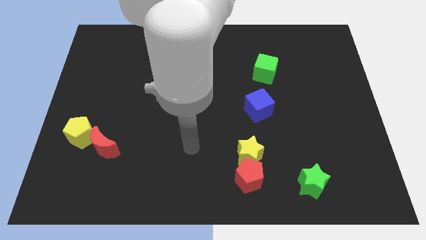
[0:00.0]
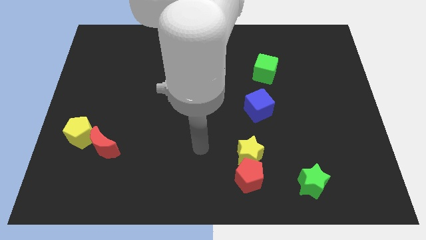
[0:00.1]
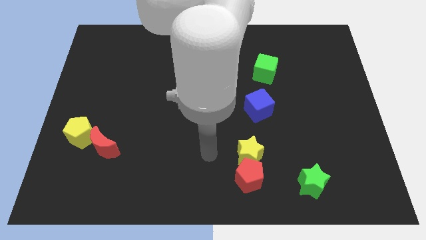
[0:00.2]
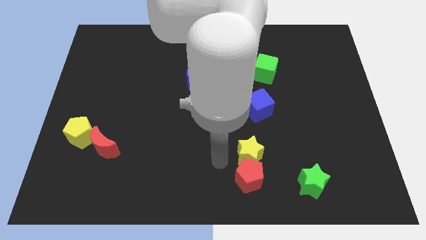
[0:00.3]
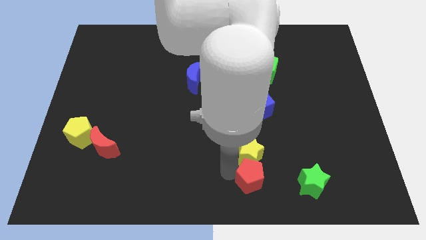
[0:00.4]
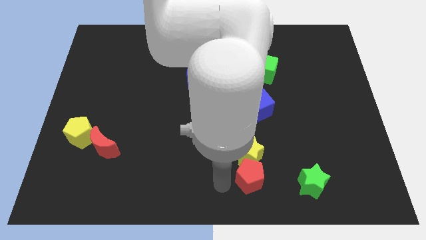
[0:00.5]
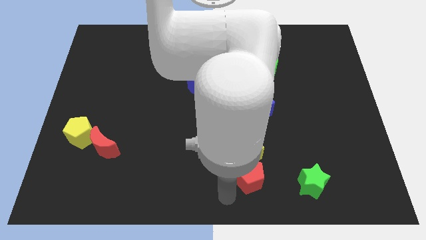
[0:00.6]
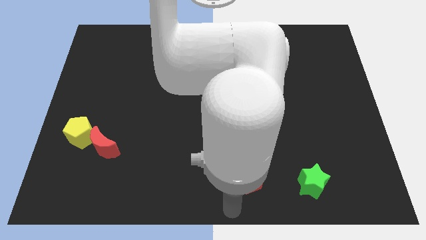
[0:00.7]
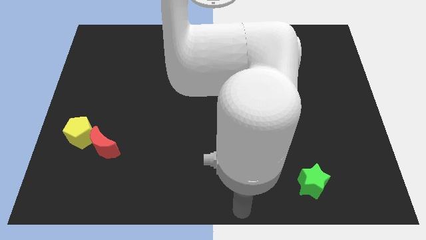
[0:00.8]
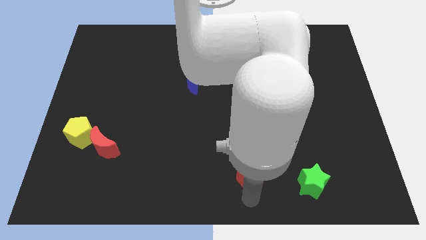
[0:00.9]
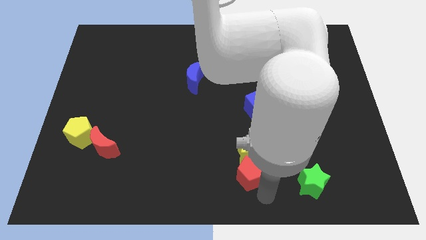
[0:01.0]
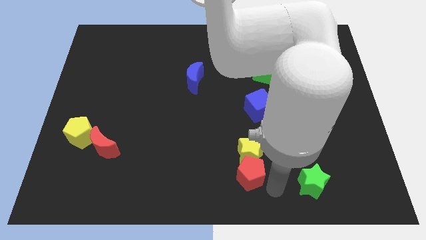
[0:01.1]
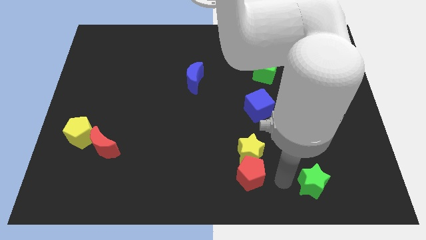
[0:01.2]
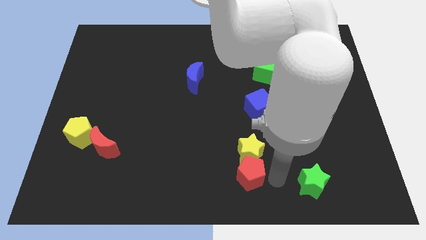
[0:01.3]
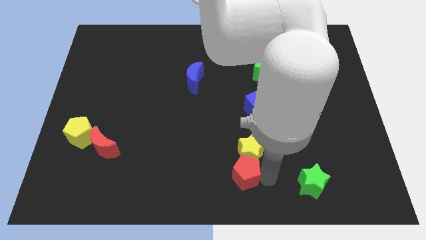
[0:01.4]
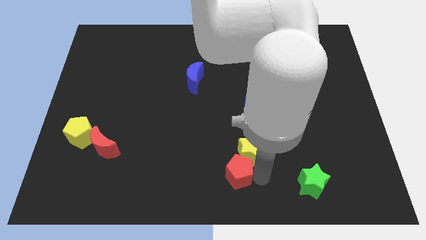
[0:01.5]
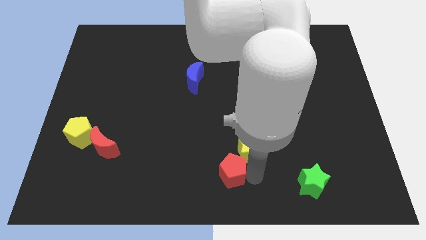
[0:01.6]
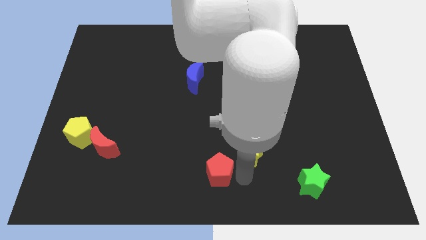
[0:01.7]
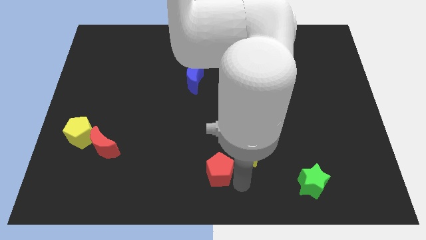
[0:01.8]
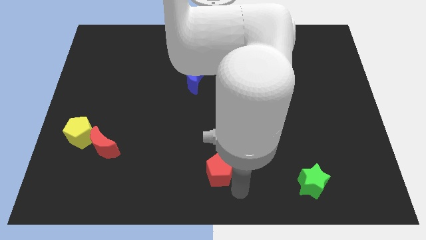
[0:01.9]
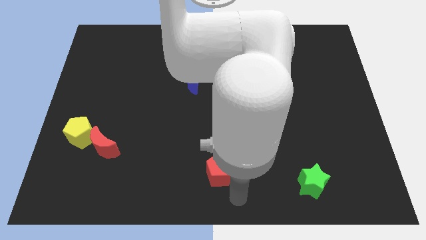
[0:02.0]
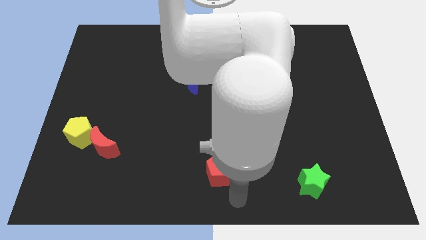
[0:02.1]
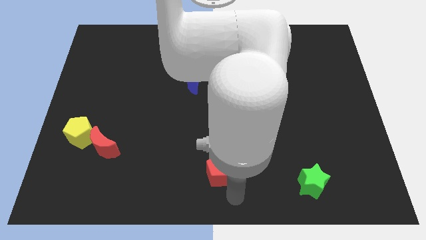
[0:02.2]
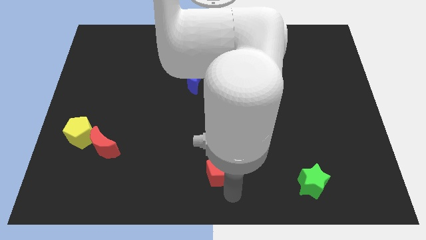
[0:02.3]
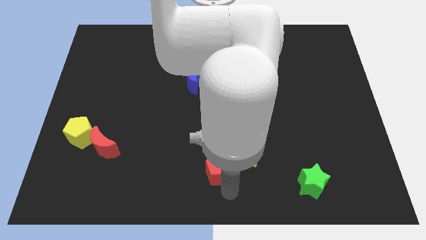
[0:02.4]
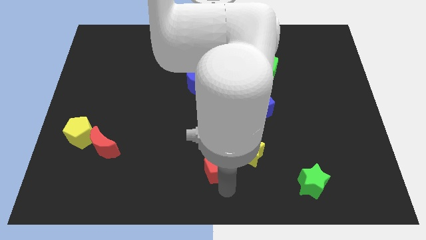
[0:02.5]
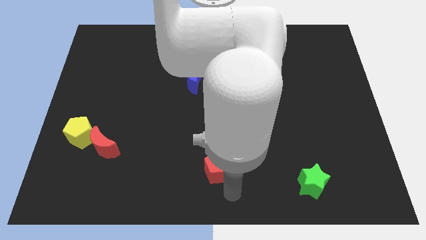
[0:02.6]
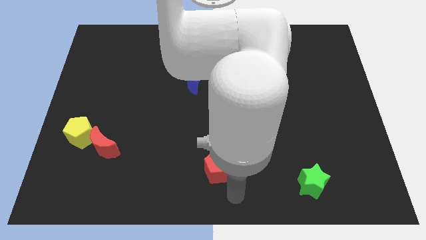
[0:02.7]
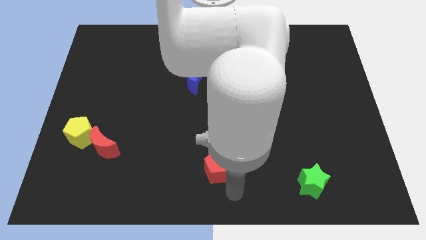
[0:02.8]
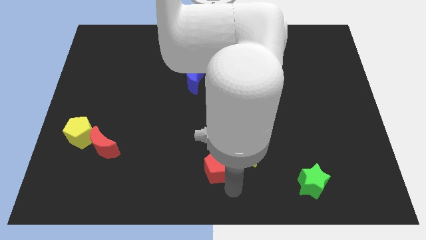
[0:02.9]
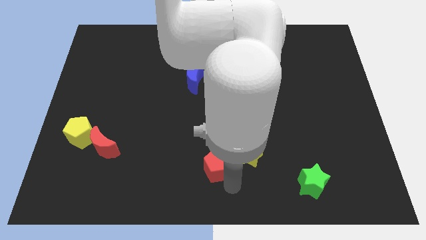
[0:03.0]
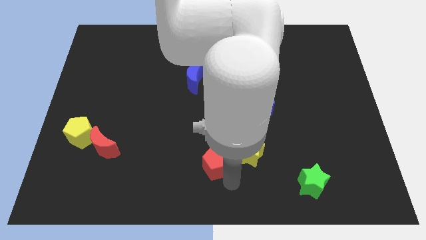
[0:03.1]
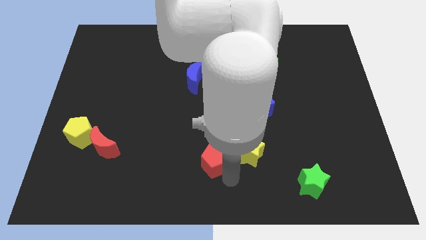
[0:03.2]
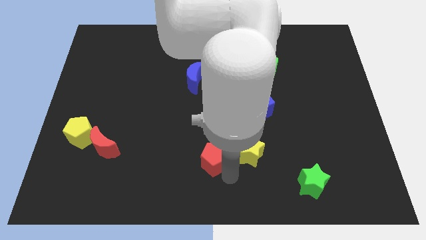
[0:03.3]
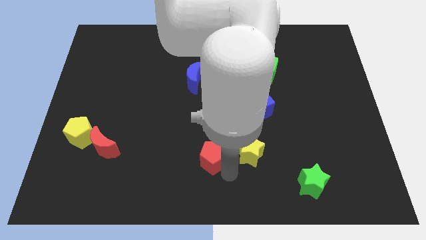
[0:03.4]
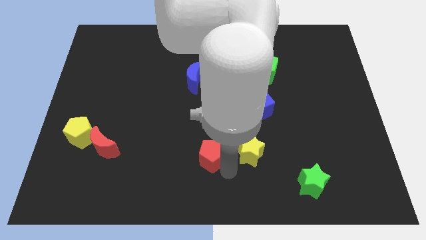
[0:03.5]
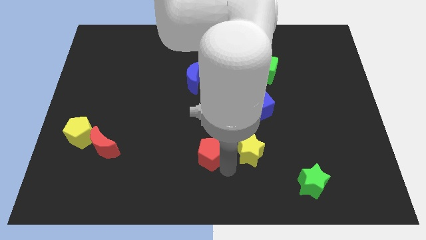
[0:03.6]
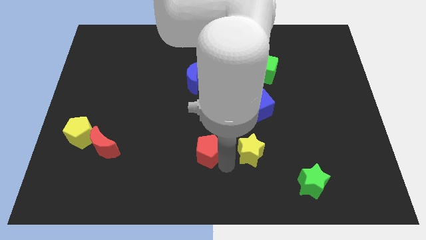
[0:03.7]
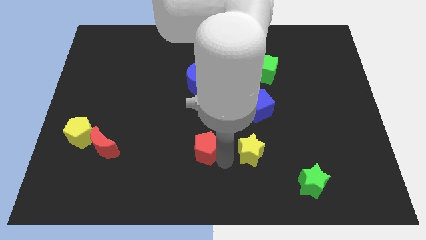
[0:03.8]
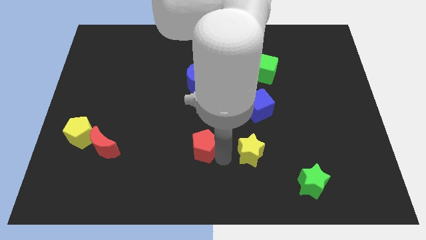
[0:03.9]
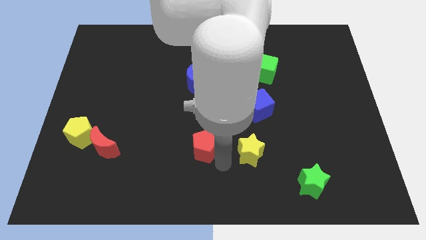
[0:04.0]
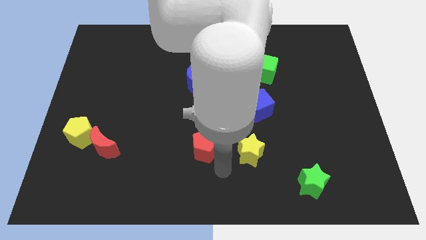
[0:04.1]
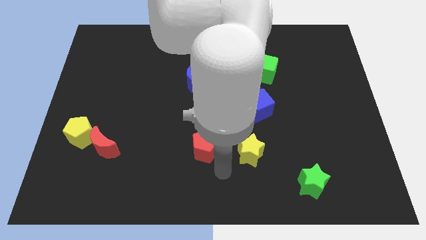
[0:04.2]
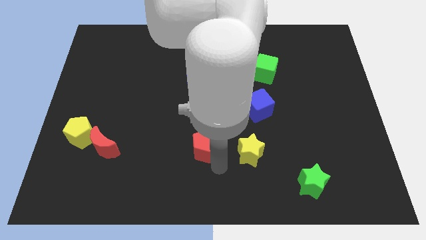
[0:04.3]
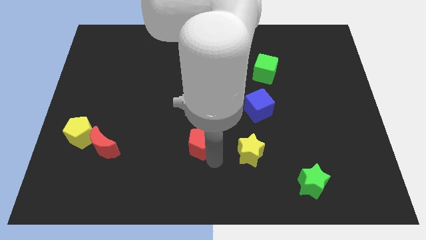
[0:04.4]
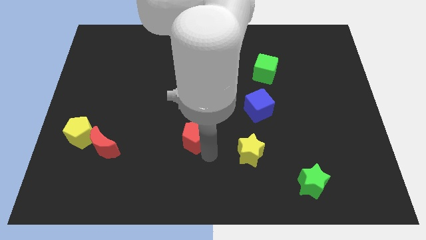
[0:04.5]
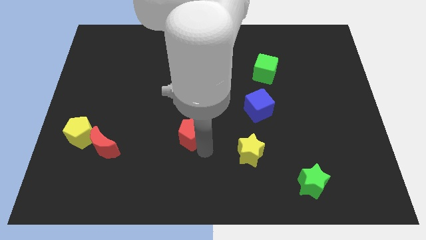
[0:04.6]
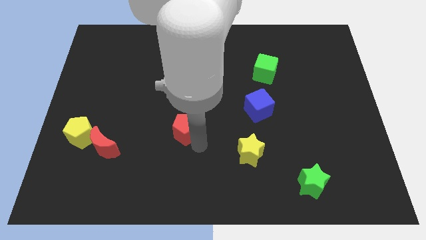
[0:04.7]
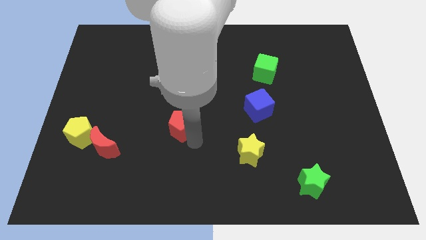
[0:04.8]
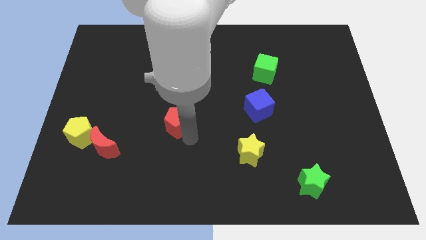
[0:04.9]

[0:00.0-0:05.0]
slide the red pentagon up and then to the left

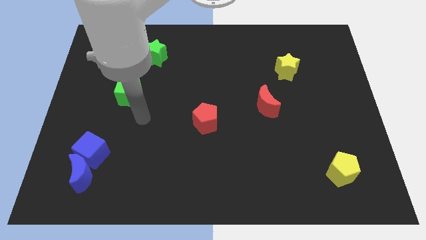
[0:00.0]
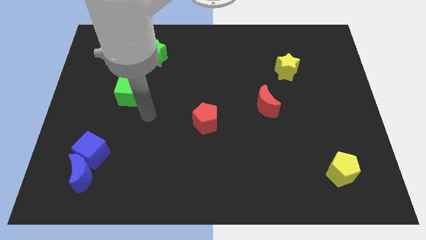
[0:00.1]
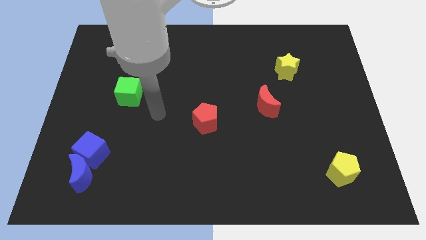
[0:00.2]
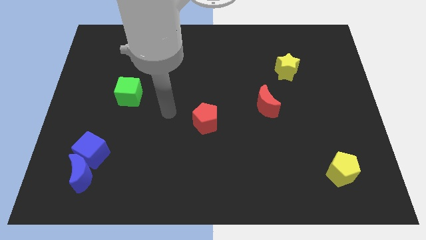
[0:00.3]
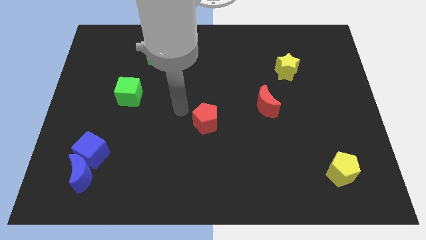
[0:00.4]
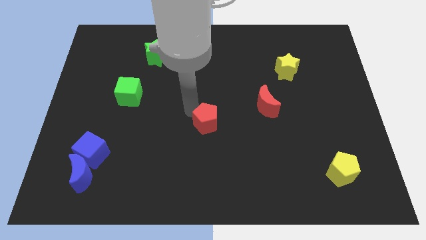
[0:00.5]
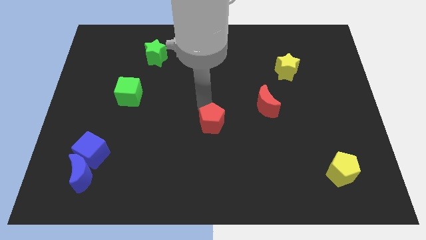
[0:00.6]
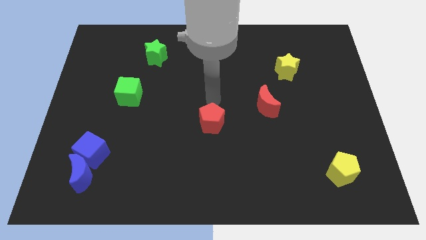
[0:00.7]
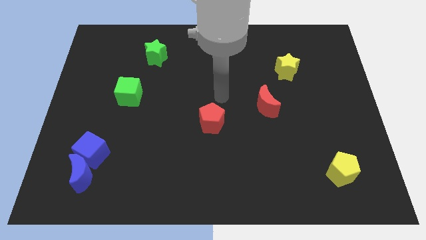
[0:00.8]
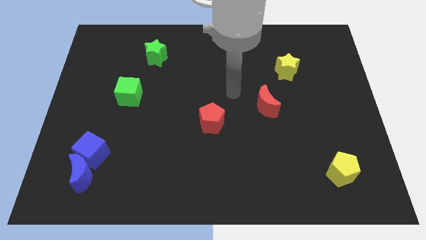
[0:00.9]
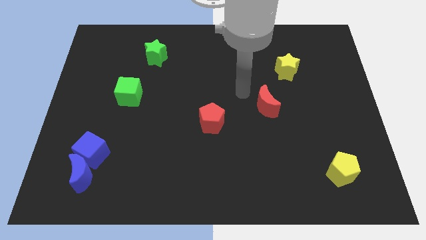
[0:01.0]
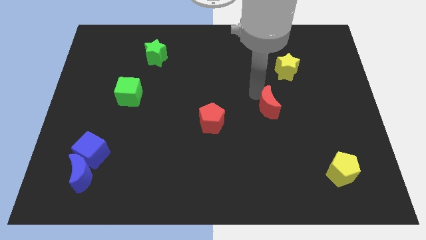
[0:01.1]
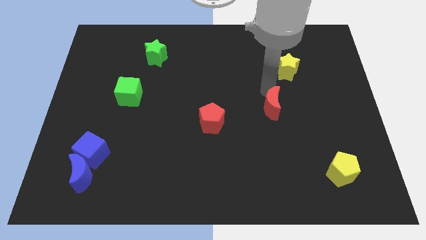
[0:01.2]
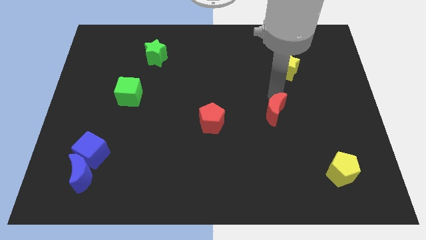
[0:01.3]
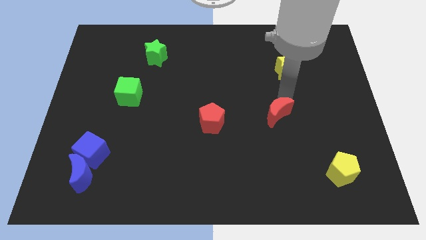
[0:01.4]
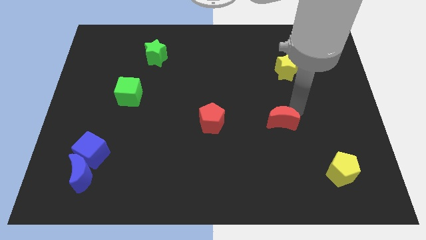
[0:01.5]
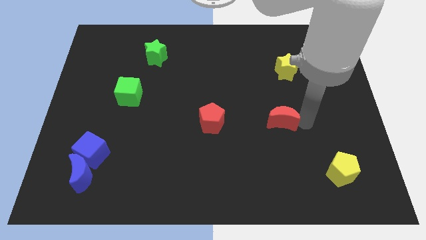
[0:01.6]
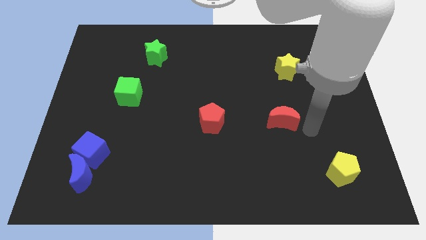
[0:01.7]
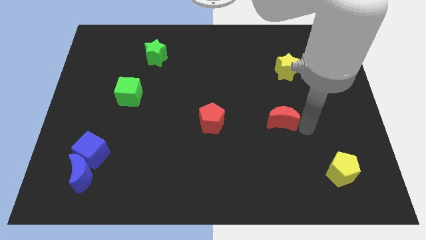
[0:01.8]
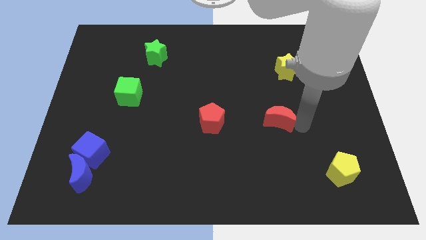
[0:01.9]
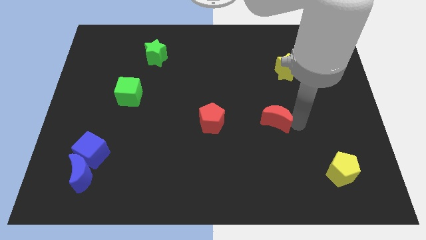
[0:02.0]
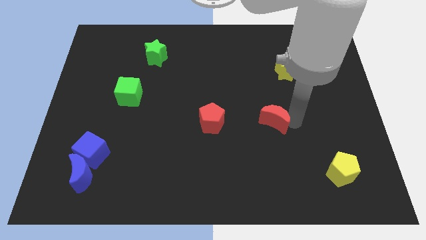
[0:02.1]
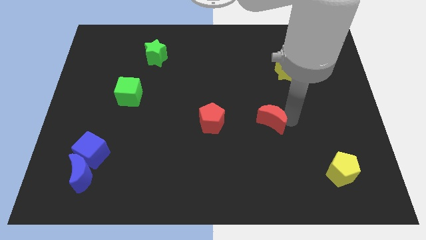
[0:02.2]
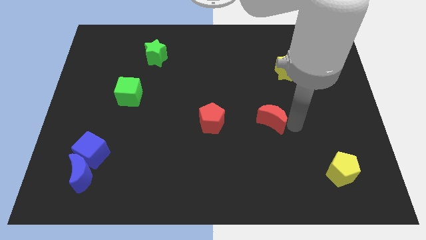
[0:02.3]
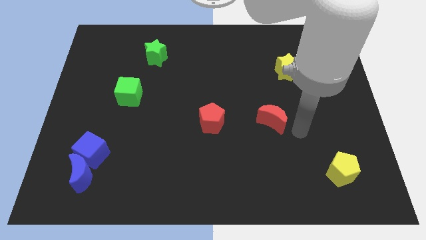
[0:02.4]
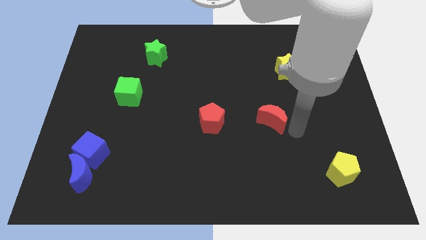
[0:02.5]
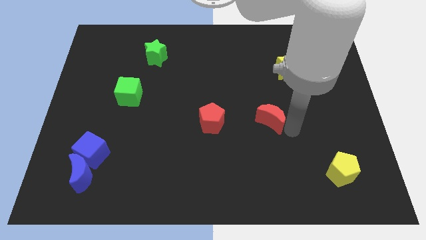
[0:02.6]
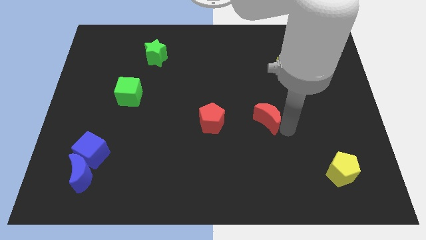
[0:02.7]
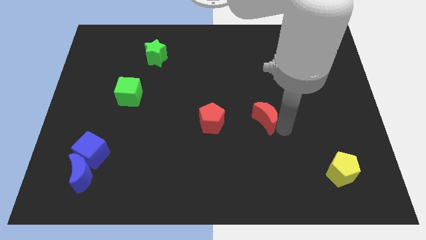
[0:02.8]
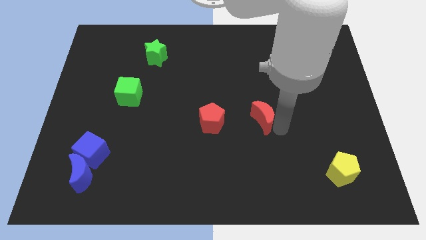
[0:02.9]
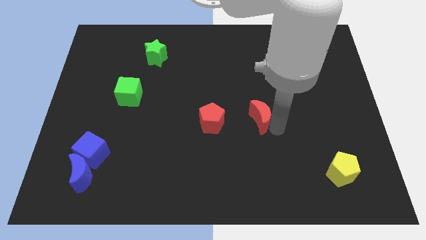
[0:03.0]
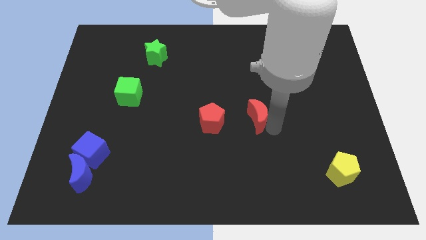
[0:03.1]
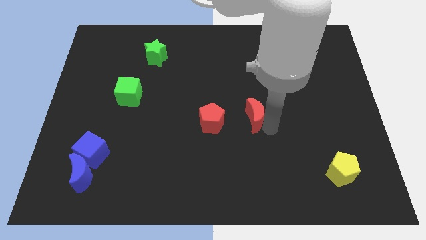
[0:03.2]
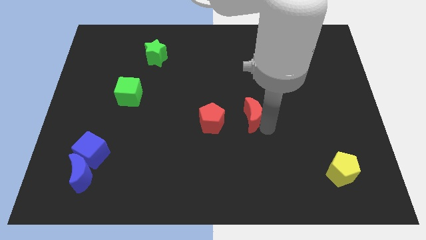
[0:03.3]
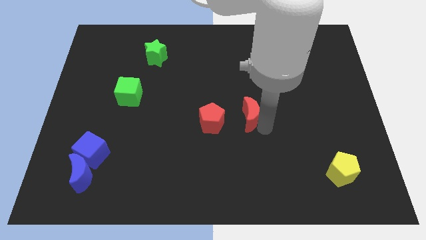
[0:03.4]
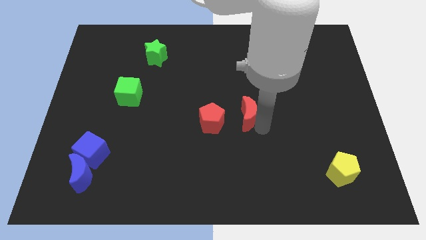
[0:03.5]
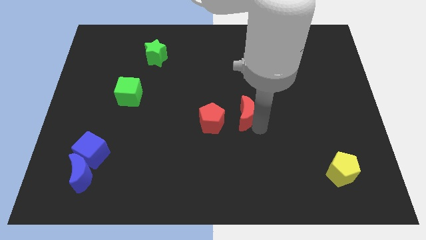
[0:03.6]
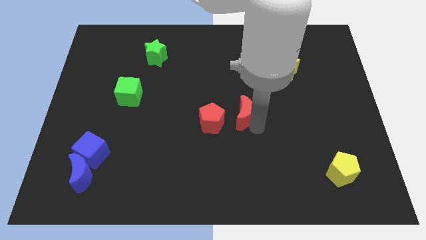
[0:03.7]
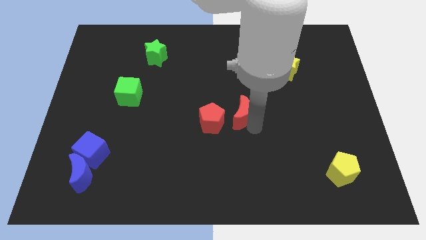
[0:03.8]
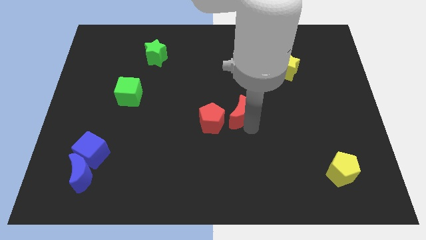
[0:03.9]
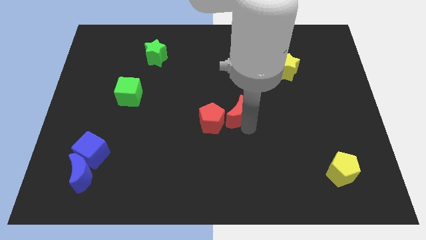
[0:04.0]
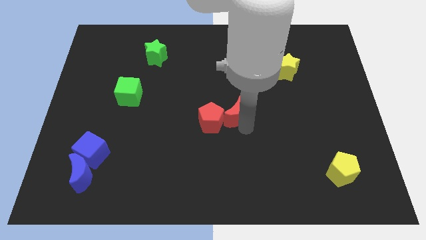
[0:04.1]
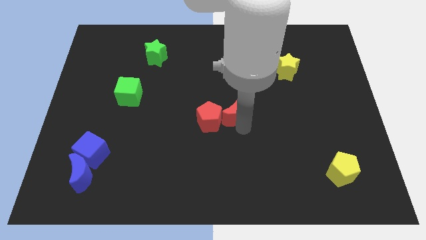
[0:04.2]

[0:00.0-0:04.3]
slide the red moon a little to the left
